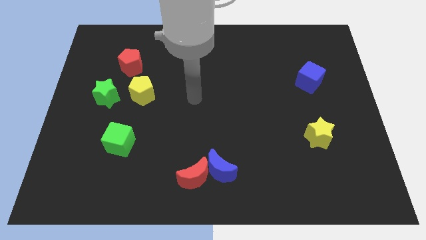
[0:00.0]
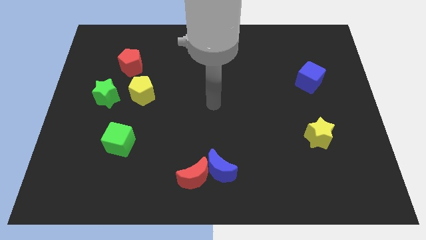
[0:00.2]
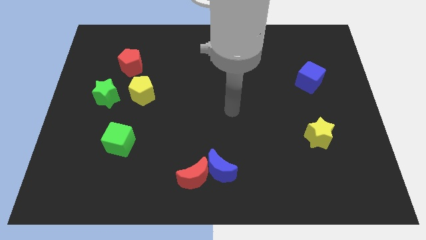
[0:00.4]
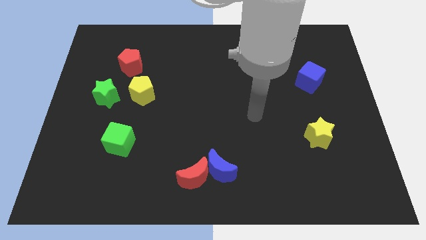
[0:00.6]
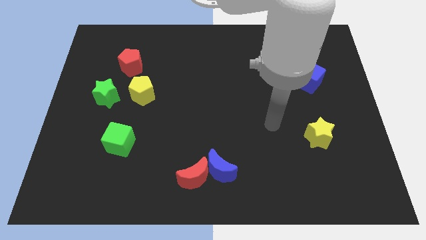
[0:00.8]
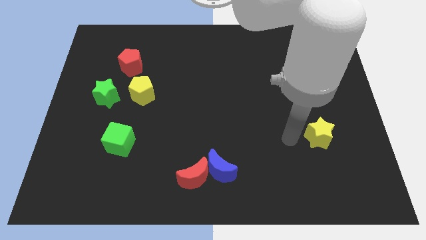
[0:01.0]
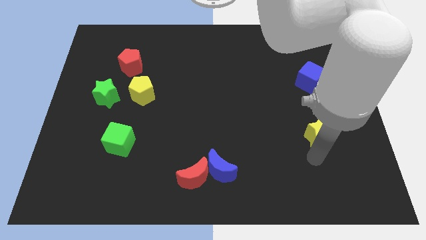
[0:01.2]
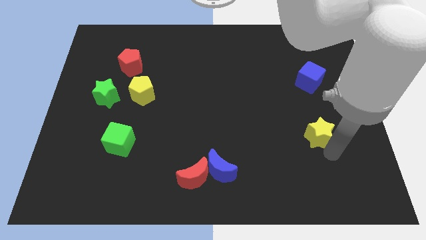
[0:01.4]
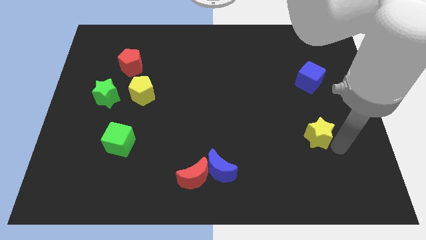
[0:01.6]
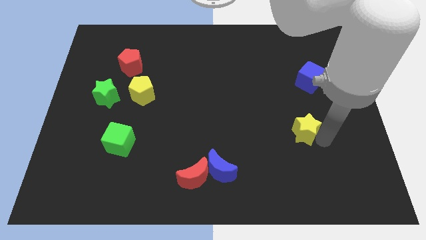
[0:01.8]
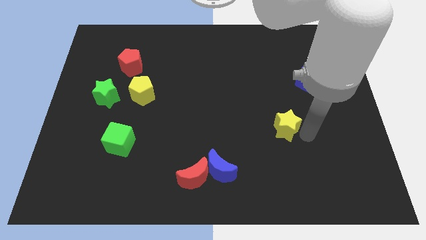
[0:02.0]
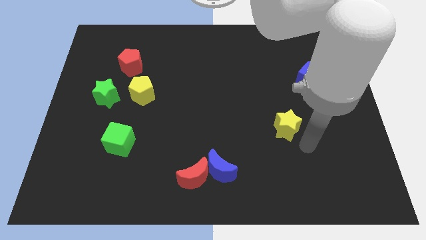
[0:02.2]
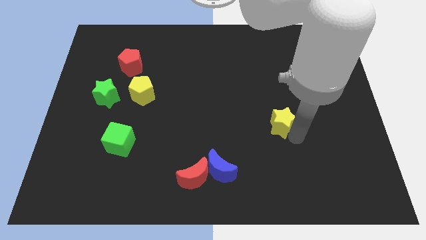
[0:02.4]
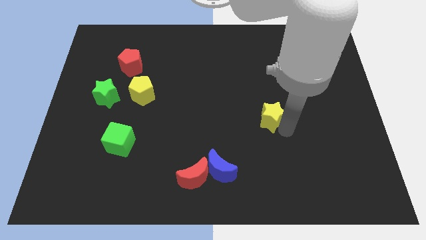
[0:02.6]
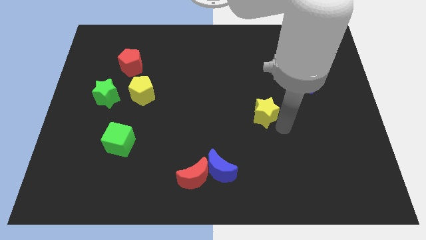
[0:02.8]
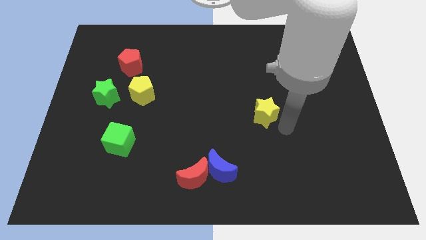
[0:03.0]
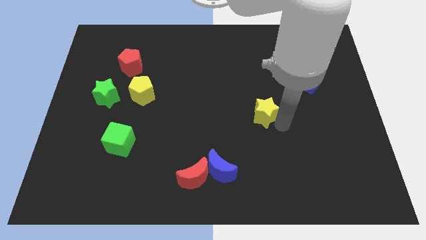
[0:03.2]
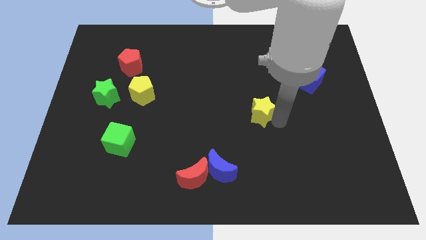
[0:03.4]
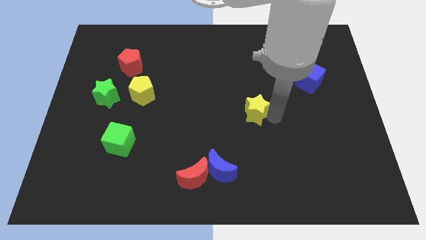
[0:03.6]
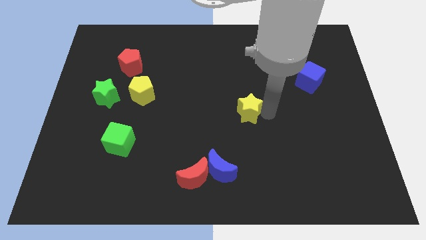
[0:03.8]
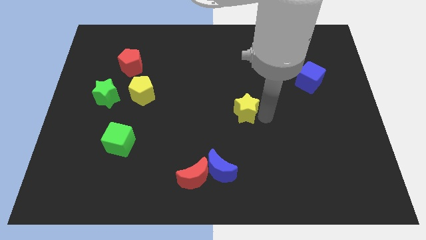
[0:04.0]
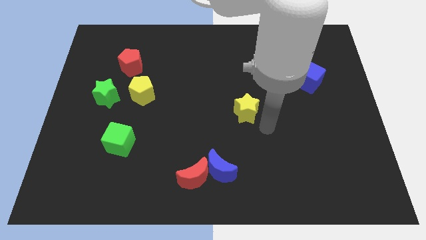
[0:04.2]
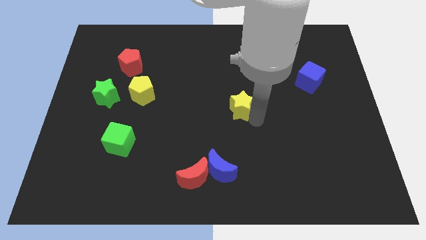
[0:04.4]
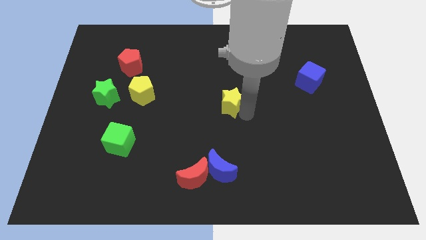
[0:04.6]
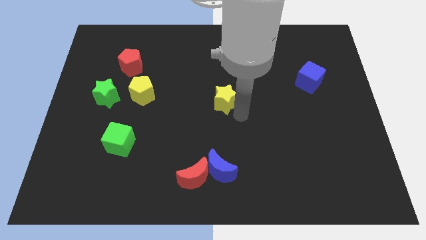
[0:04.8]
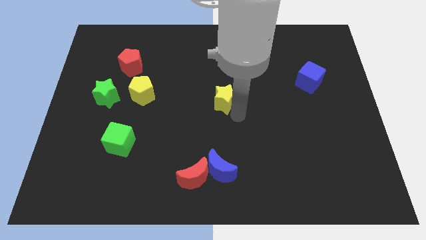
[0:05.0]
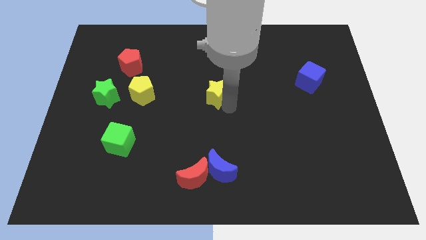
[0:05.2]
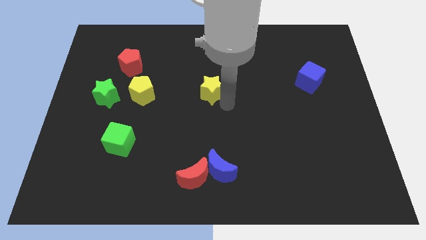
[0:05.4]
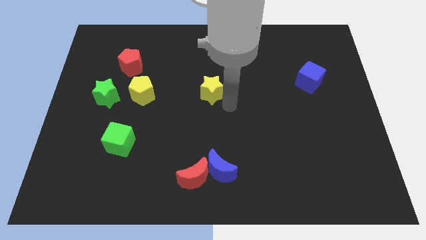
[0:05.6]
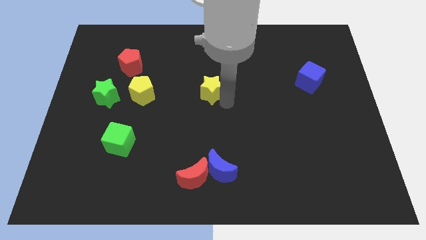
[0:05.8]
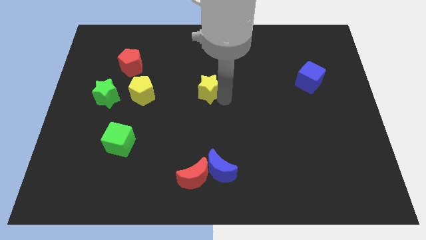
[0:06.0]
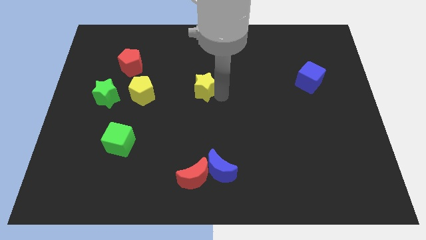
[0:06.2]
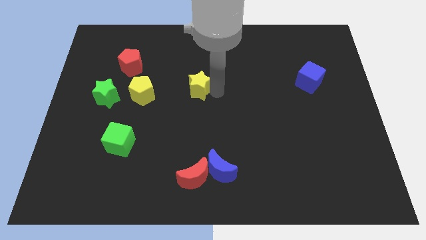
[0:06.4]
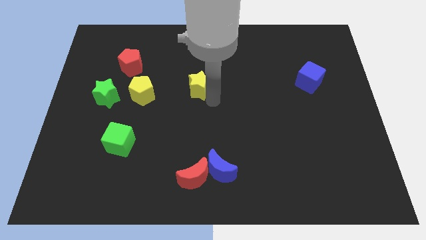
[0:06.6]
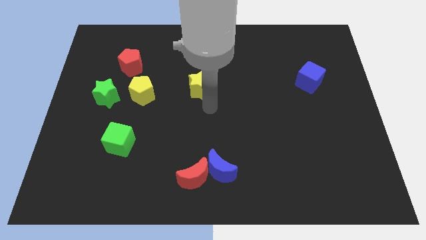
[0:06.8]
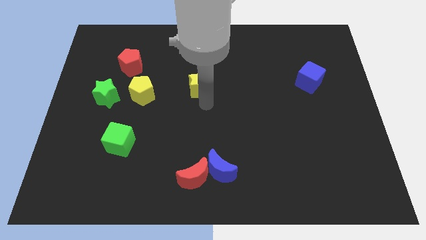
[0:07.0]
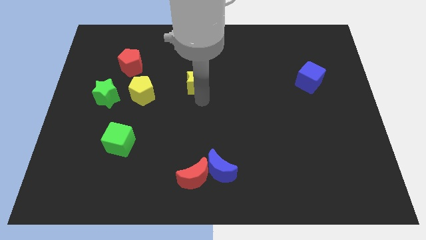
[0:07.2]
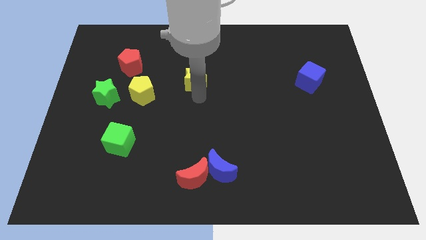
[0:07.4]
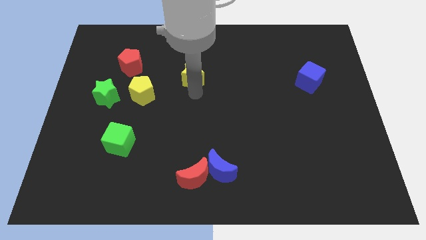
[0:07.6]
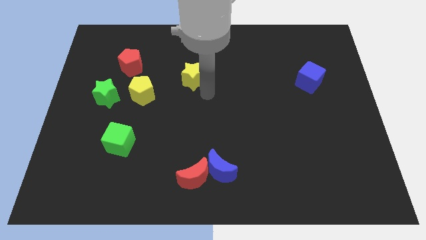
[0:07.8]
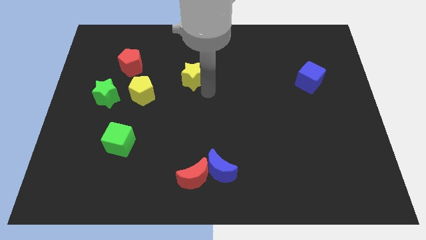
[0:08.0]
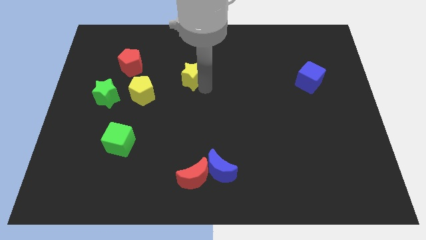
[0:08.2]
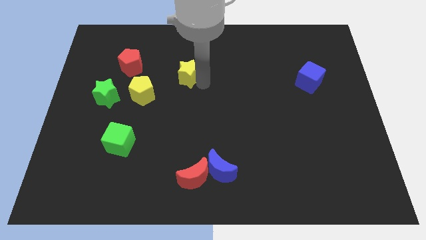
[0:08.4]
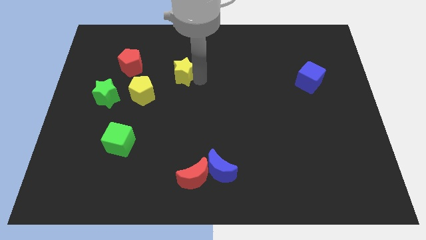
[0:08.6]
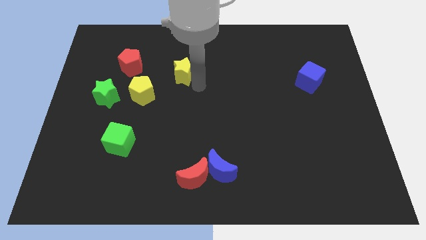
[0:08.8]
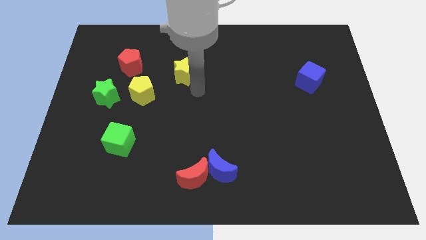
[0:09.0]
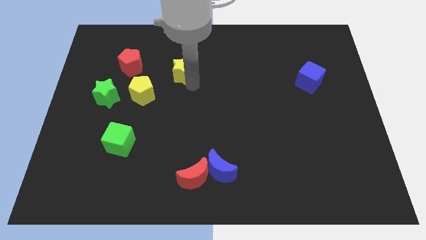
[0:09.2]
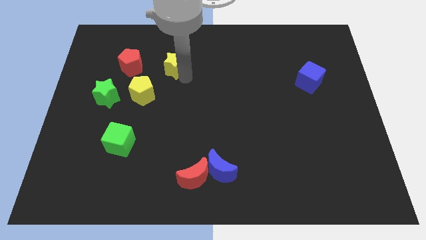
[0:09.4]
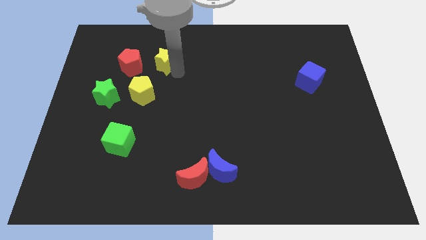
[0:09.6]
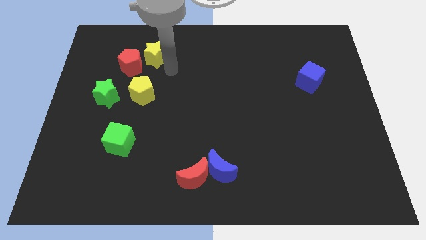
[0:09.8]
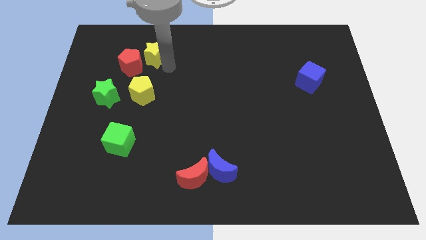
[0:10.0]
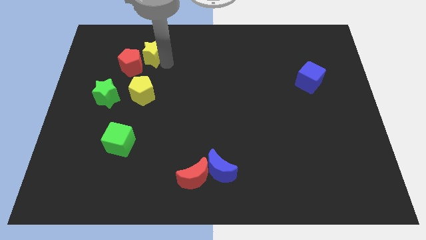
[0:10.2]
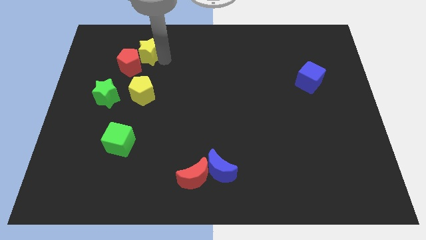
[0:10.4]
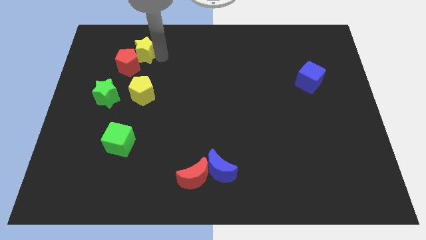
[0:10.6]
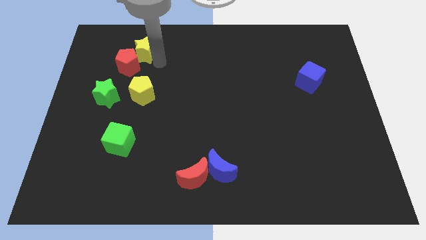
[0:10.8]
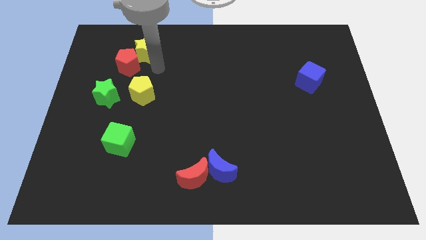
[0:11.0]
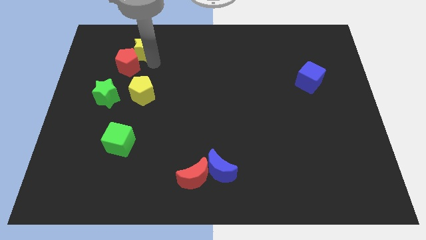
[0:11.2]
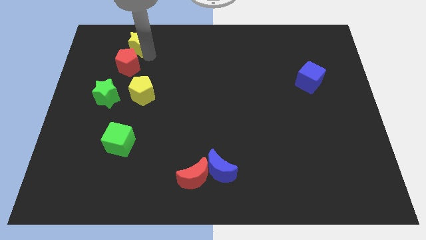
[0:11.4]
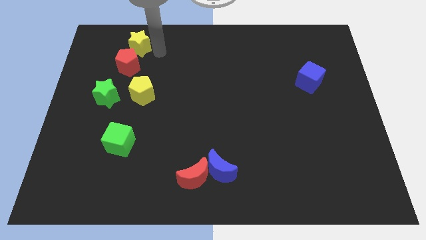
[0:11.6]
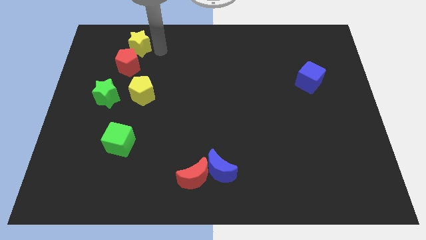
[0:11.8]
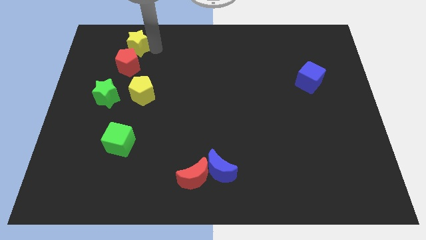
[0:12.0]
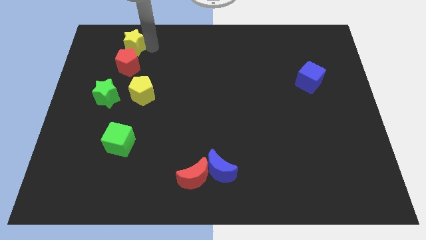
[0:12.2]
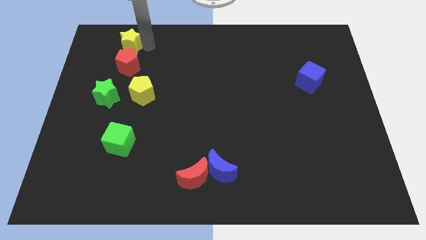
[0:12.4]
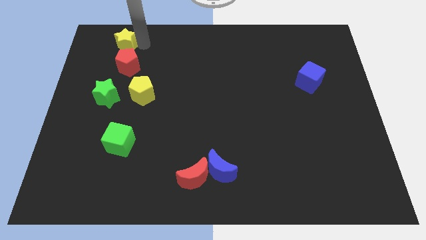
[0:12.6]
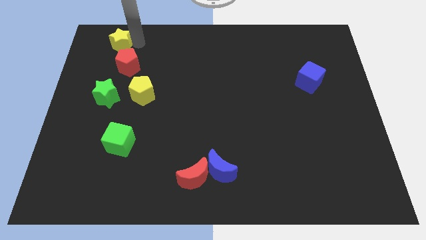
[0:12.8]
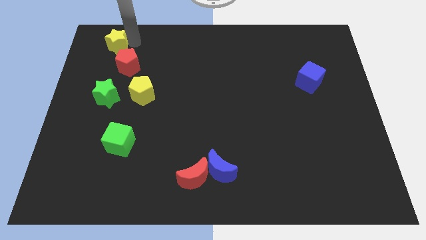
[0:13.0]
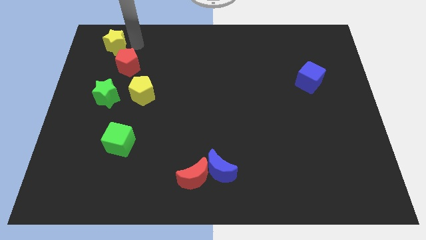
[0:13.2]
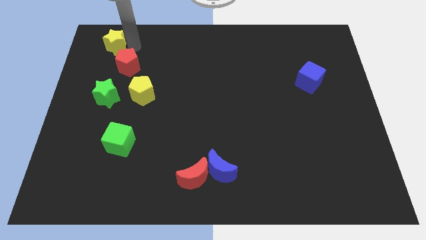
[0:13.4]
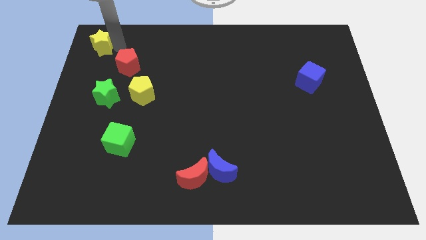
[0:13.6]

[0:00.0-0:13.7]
move the yellow star to the top left of the board

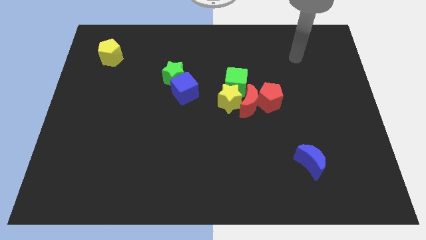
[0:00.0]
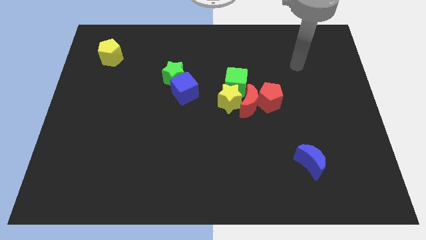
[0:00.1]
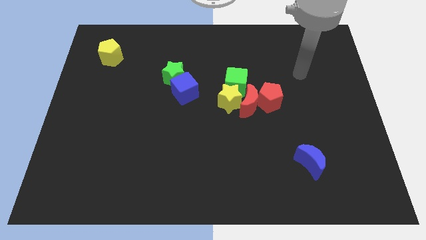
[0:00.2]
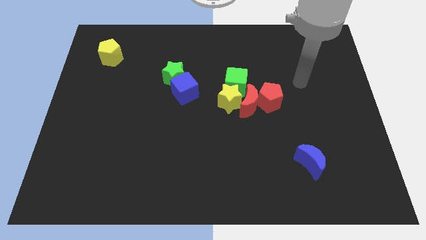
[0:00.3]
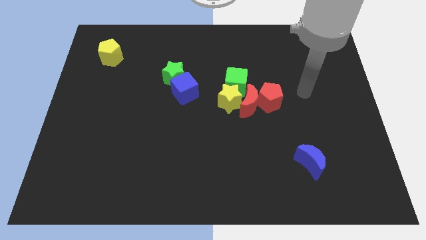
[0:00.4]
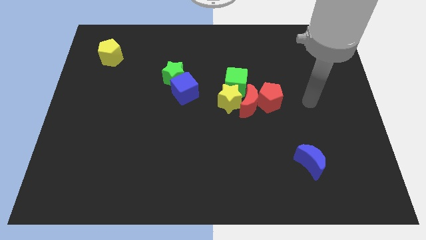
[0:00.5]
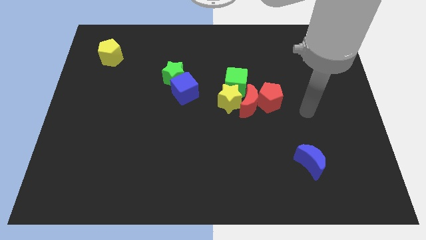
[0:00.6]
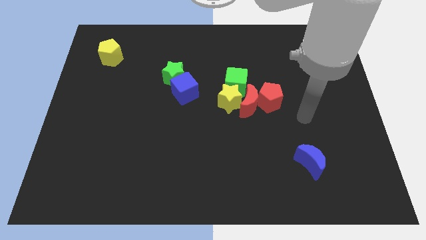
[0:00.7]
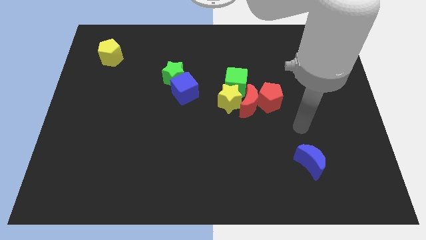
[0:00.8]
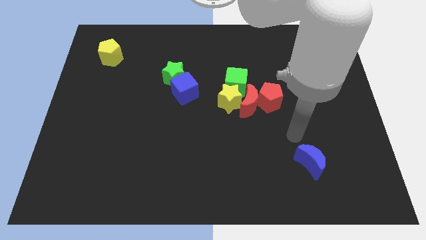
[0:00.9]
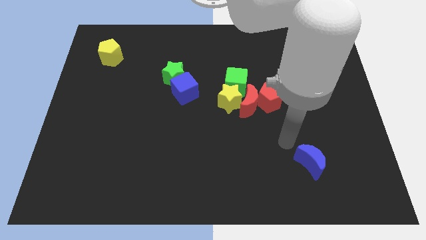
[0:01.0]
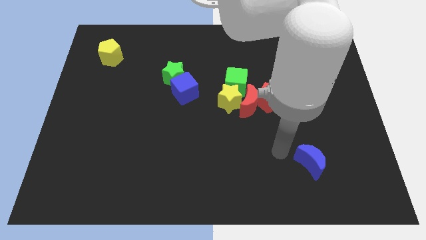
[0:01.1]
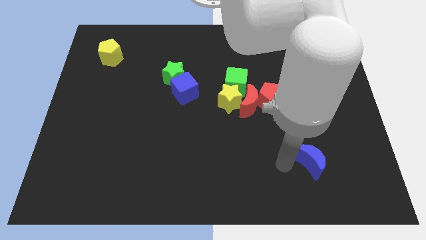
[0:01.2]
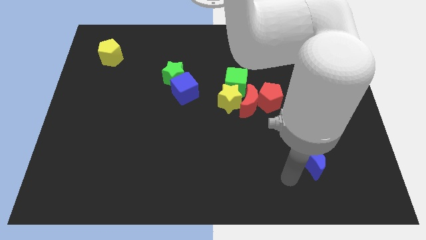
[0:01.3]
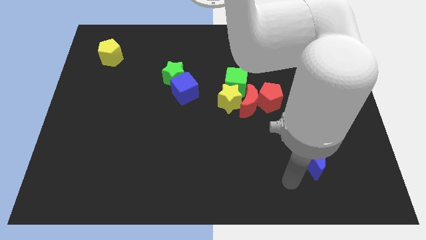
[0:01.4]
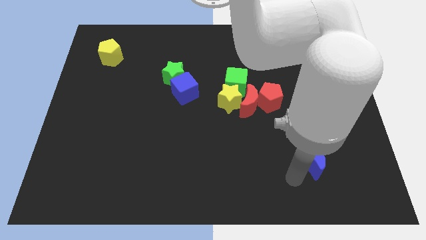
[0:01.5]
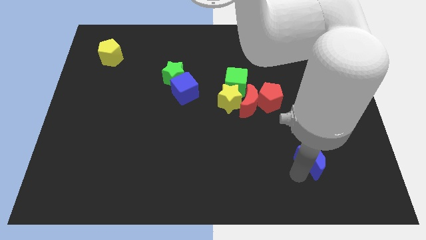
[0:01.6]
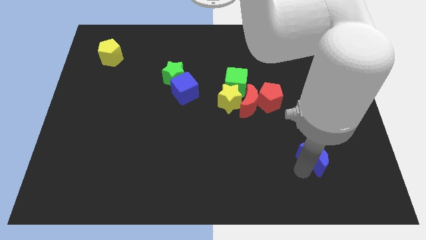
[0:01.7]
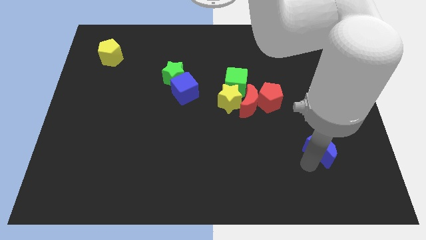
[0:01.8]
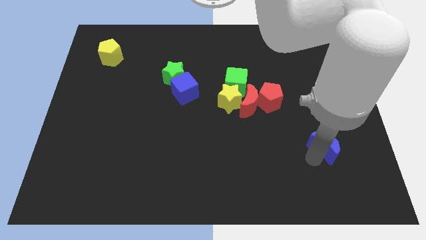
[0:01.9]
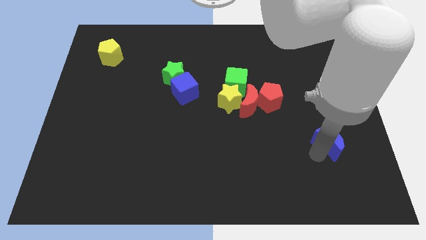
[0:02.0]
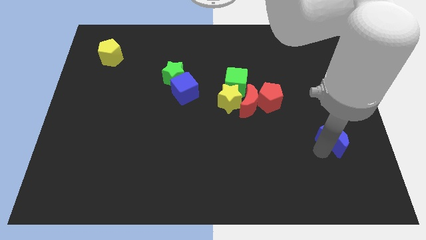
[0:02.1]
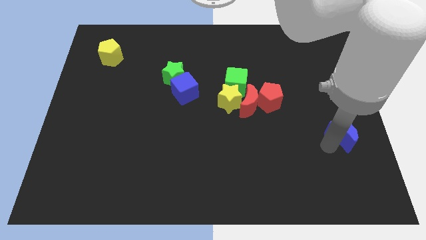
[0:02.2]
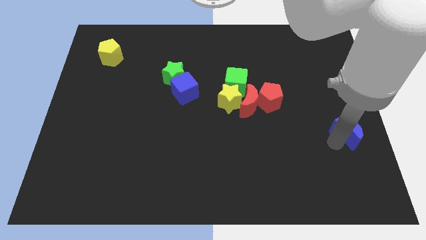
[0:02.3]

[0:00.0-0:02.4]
move the blue moon to the right side
